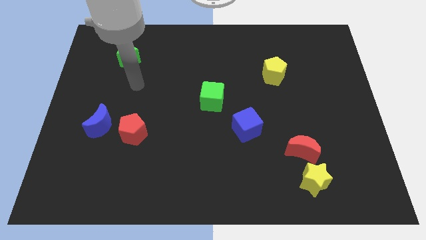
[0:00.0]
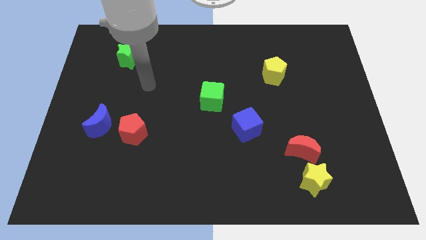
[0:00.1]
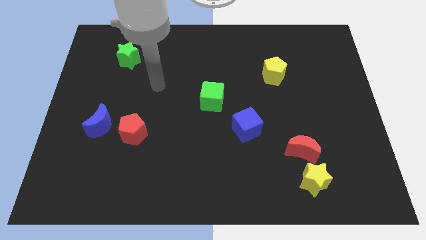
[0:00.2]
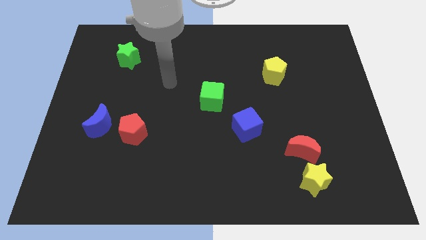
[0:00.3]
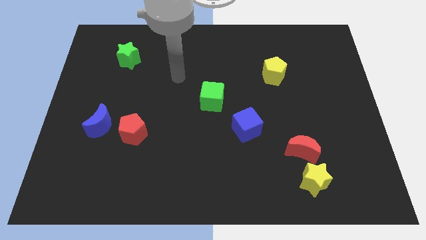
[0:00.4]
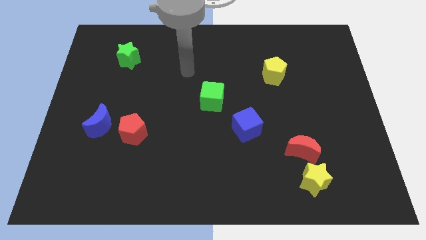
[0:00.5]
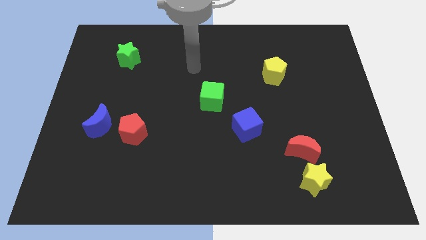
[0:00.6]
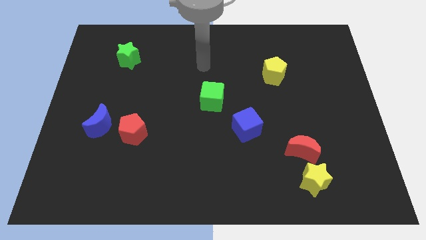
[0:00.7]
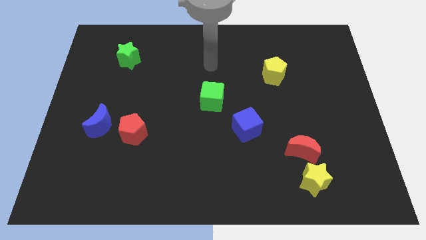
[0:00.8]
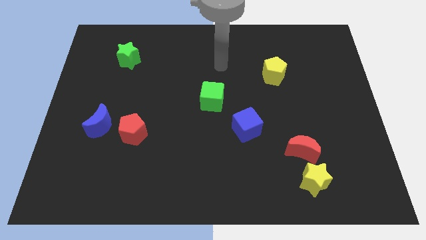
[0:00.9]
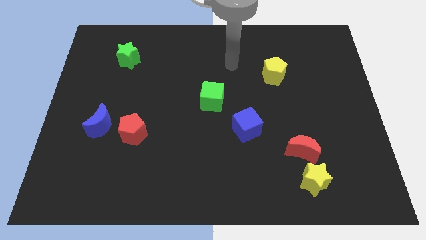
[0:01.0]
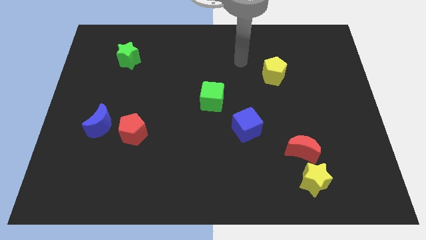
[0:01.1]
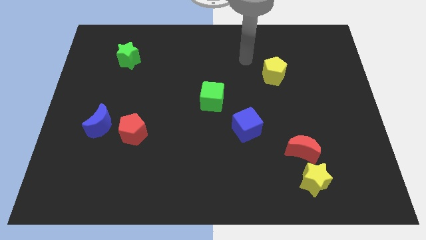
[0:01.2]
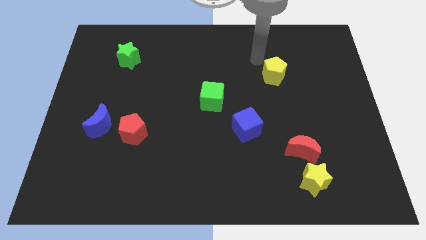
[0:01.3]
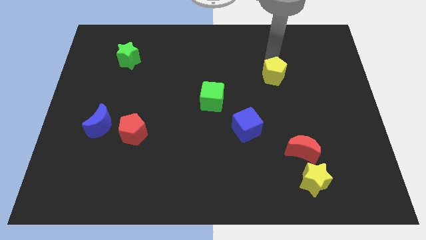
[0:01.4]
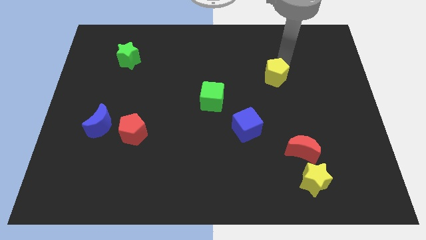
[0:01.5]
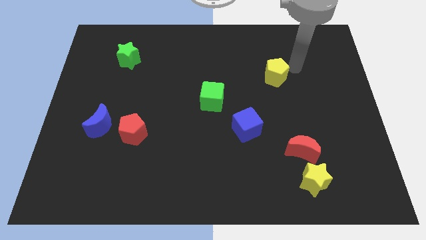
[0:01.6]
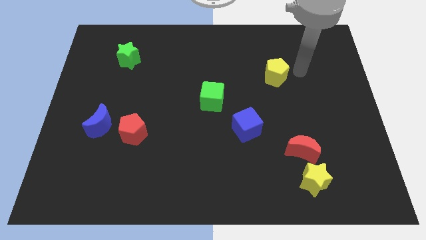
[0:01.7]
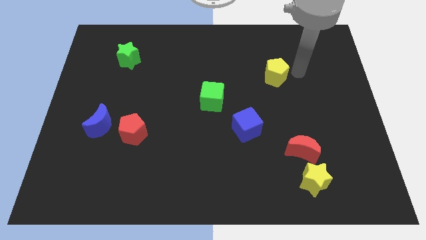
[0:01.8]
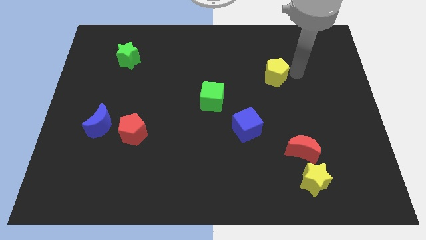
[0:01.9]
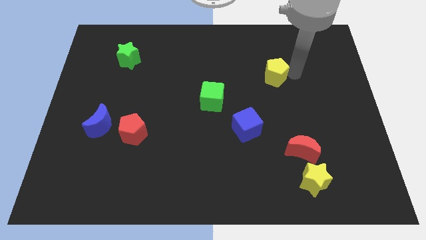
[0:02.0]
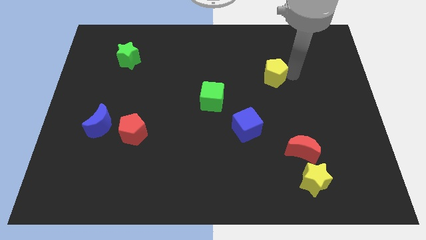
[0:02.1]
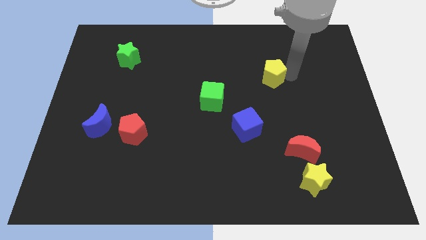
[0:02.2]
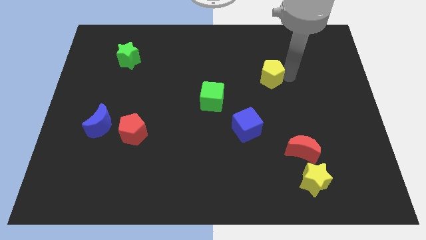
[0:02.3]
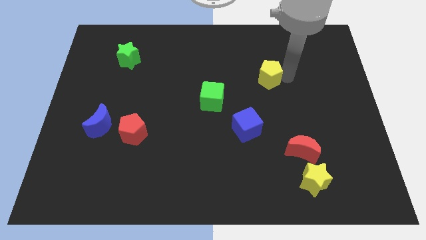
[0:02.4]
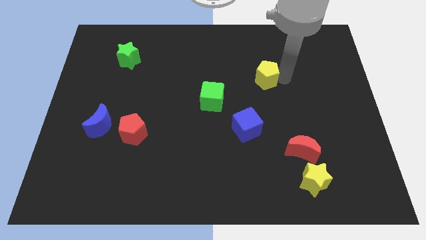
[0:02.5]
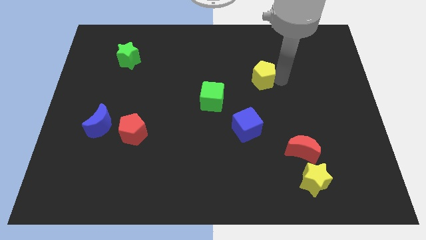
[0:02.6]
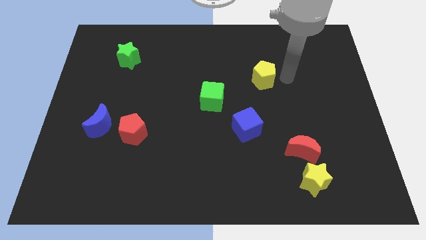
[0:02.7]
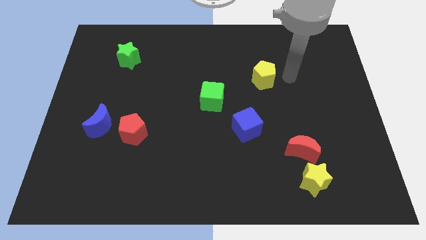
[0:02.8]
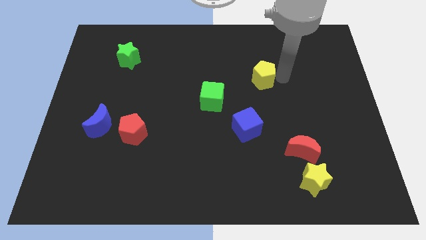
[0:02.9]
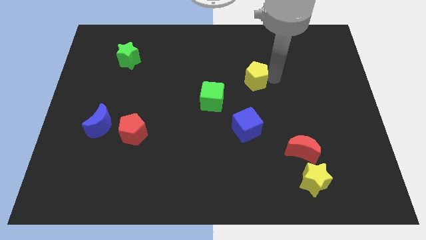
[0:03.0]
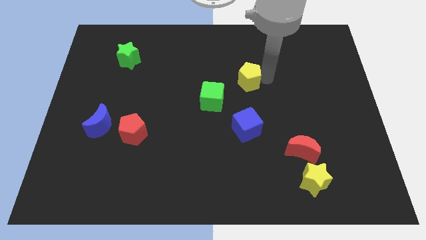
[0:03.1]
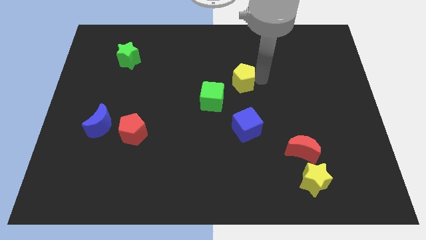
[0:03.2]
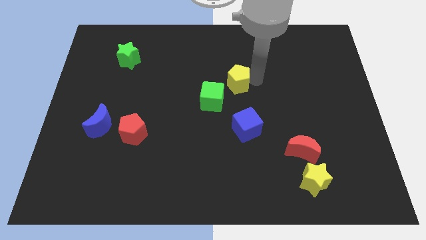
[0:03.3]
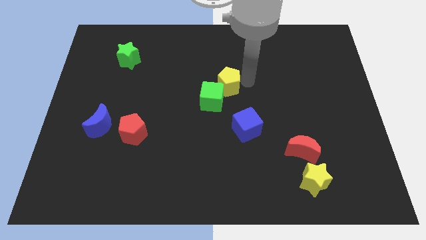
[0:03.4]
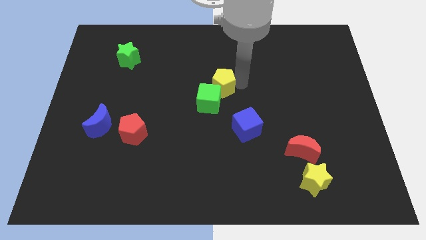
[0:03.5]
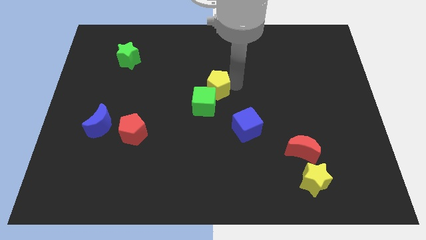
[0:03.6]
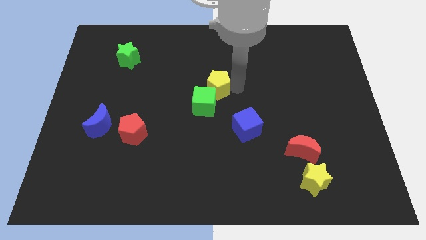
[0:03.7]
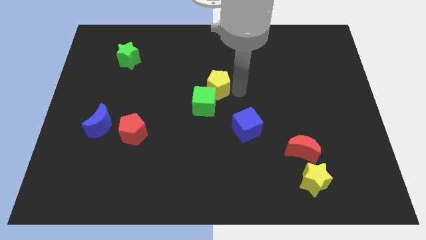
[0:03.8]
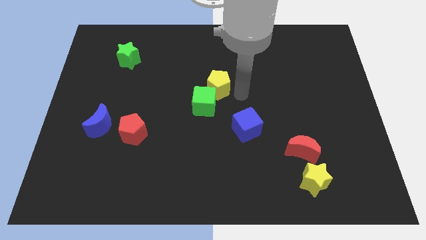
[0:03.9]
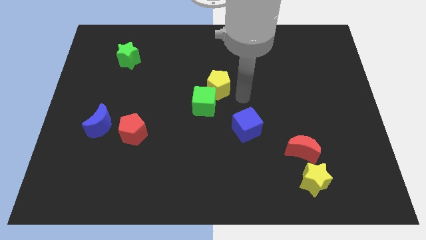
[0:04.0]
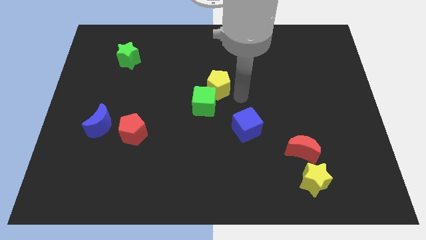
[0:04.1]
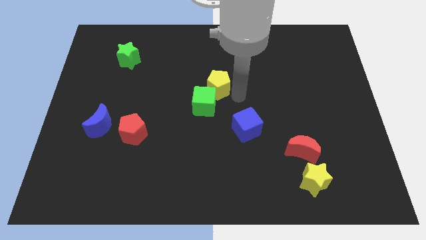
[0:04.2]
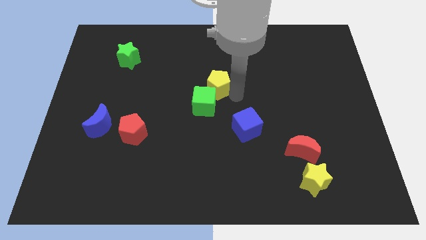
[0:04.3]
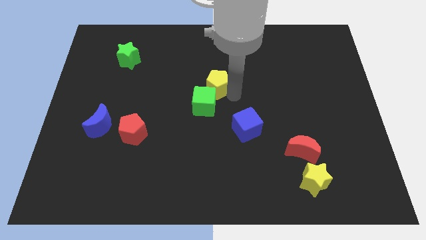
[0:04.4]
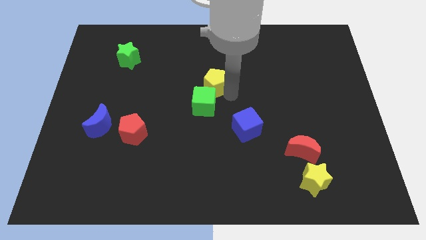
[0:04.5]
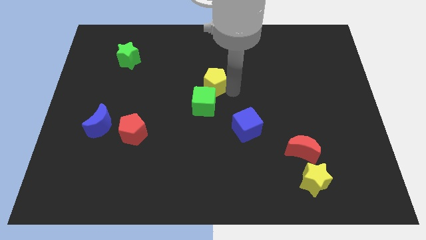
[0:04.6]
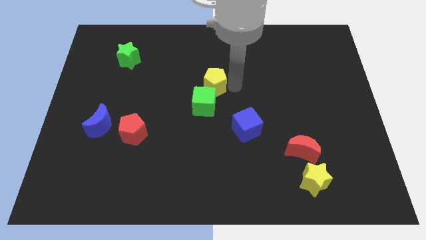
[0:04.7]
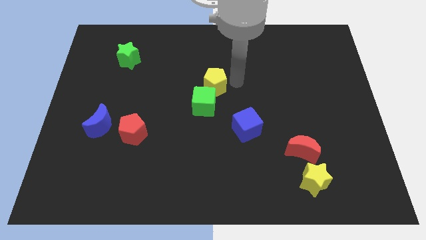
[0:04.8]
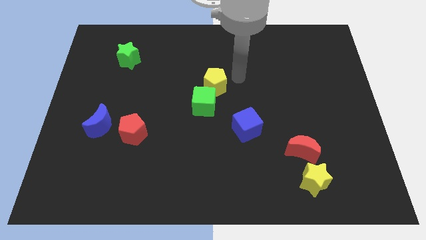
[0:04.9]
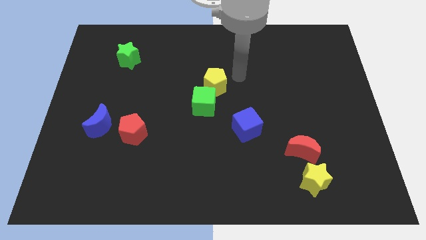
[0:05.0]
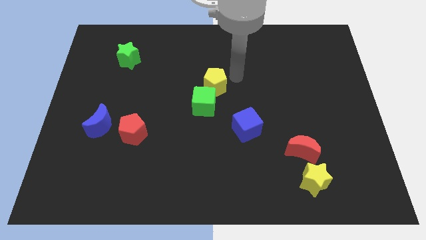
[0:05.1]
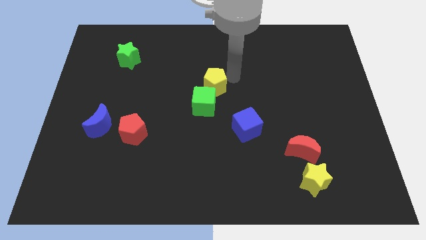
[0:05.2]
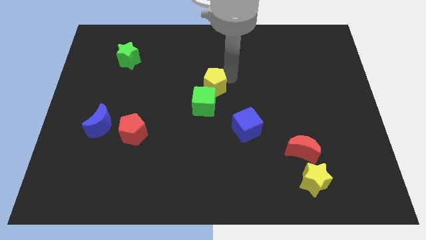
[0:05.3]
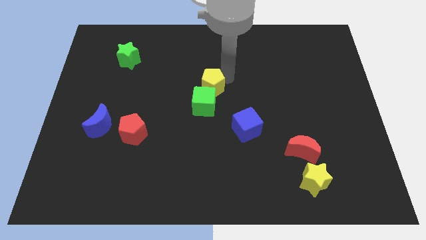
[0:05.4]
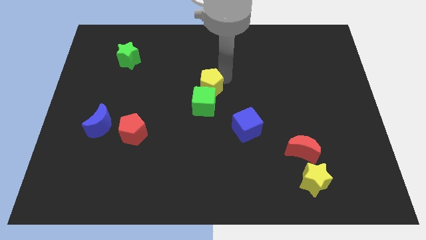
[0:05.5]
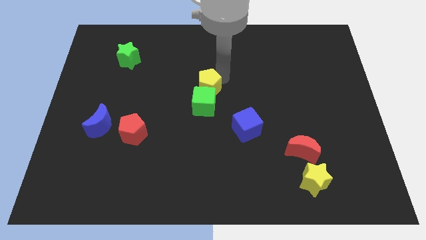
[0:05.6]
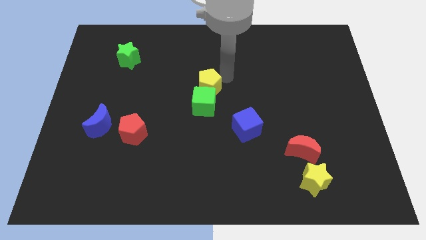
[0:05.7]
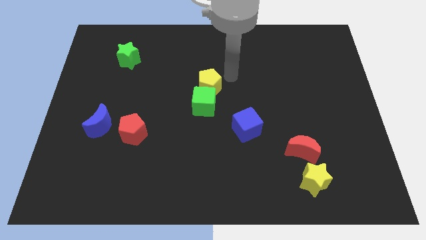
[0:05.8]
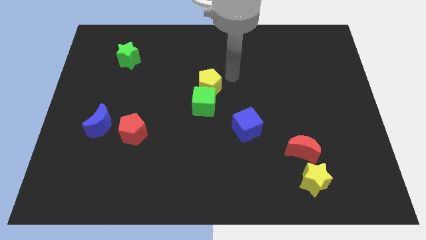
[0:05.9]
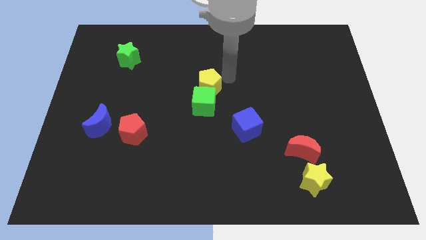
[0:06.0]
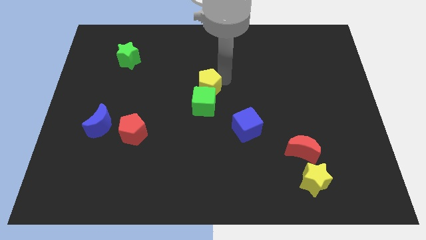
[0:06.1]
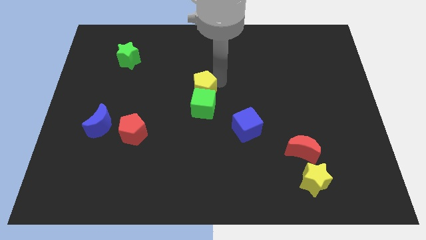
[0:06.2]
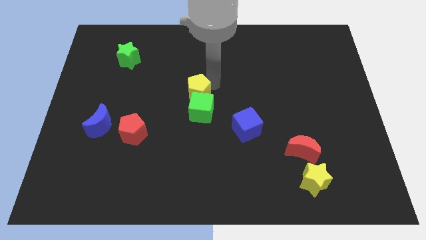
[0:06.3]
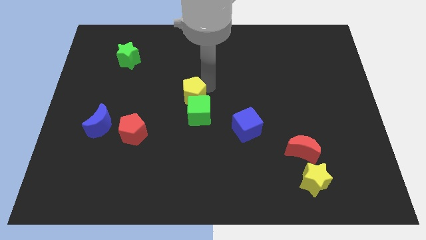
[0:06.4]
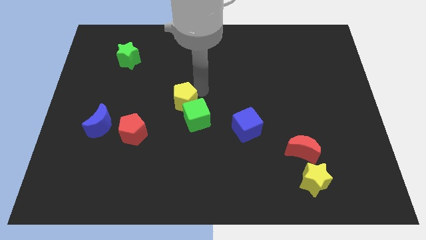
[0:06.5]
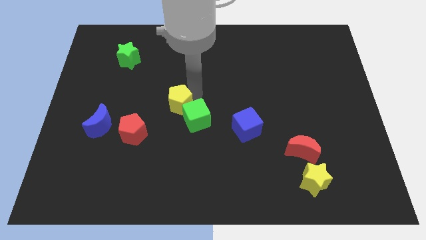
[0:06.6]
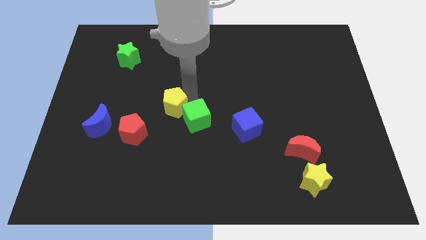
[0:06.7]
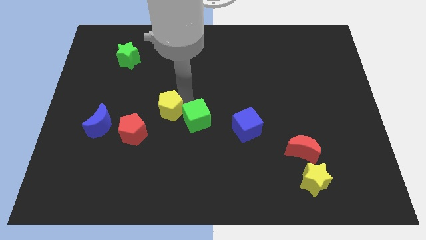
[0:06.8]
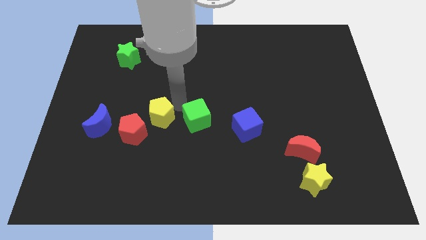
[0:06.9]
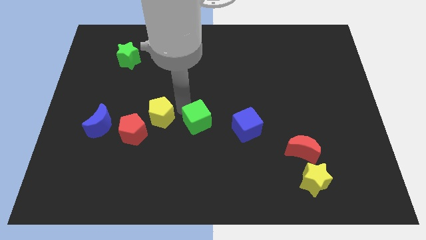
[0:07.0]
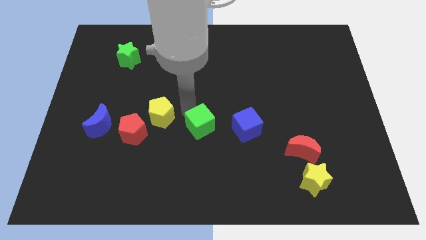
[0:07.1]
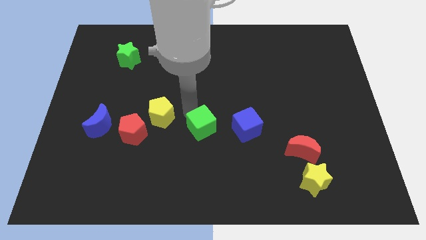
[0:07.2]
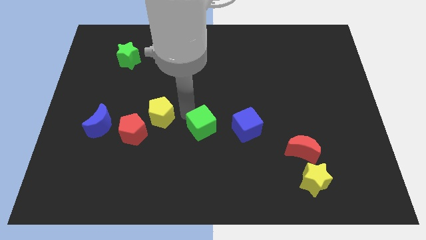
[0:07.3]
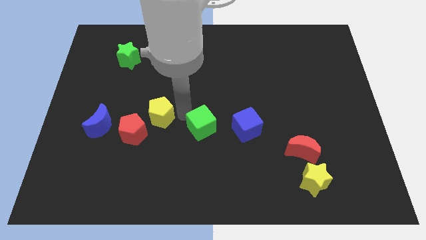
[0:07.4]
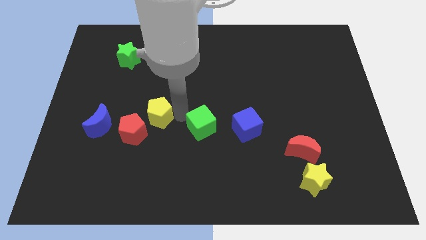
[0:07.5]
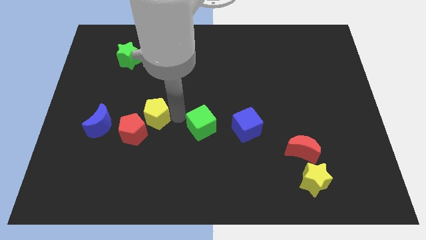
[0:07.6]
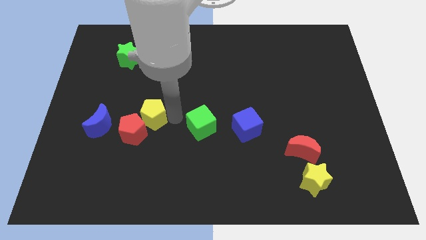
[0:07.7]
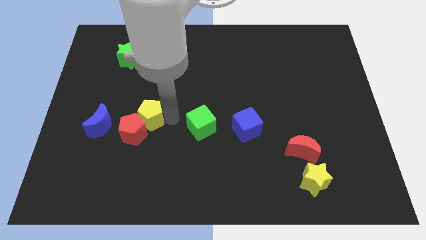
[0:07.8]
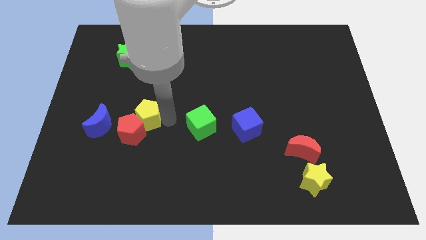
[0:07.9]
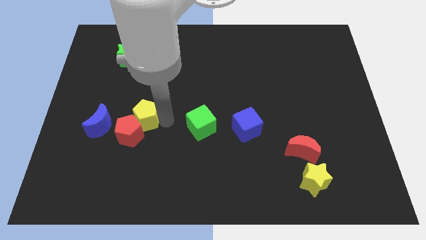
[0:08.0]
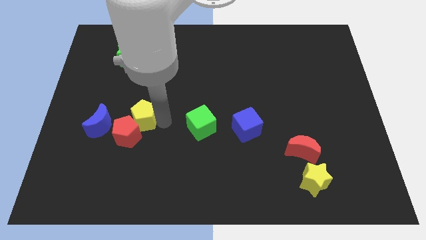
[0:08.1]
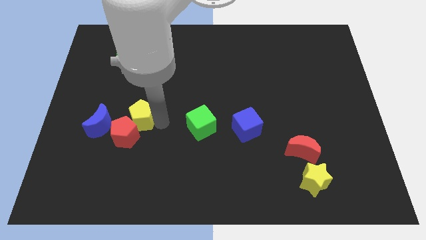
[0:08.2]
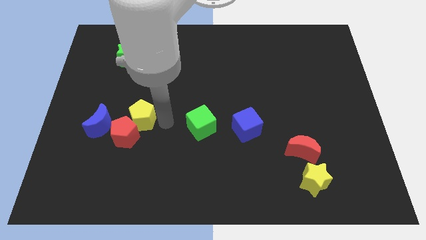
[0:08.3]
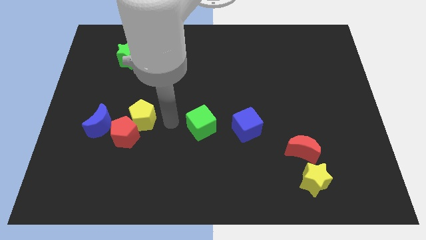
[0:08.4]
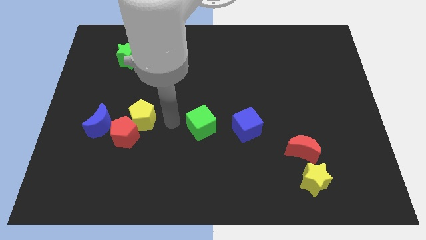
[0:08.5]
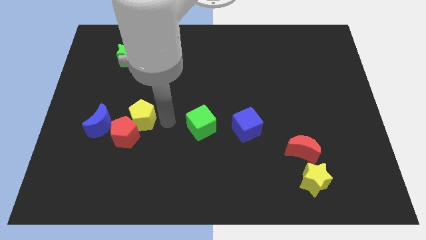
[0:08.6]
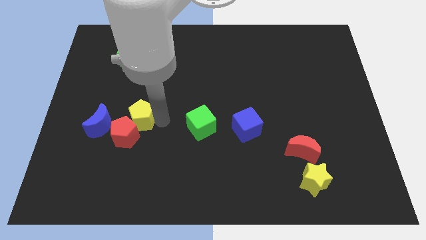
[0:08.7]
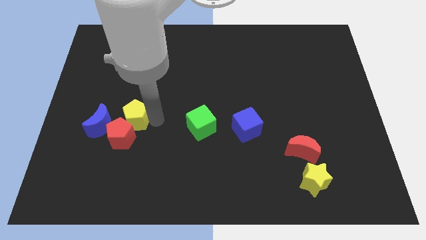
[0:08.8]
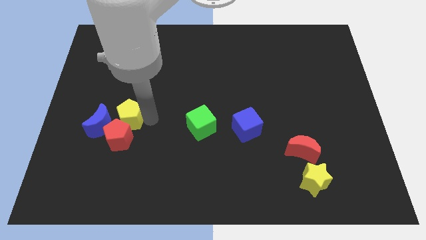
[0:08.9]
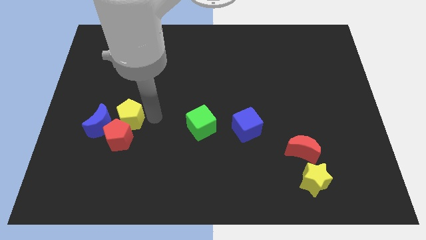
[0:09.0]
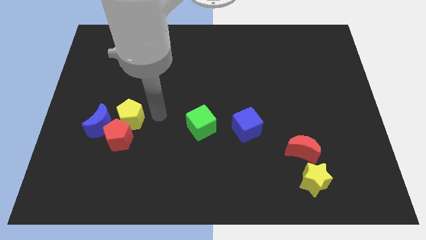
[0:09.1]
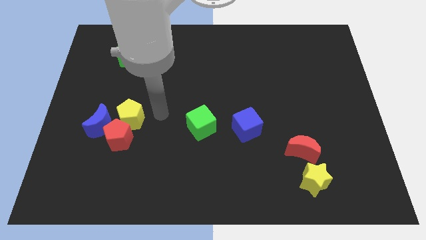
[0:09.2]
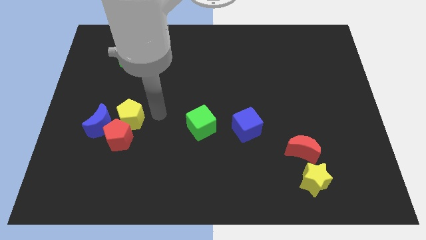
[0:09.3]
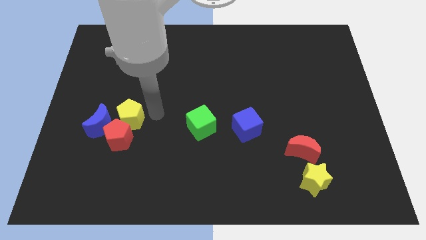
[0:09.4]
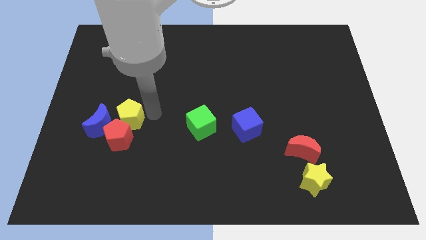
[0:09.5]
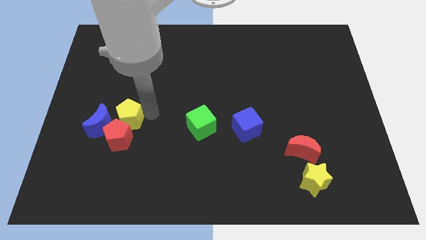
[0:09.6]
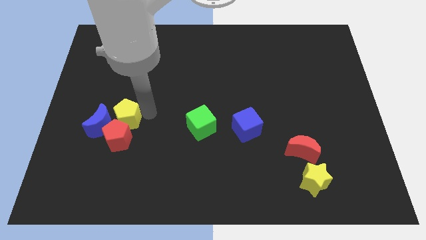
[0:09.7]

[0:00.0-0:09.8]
put the yellow pentagon close to the blue moon
